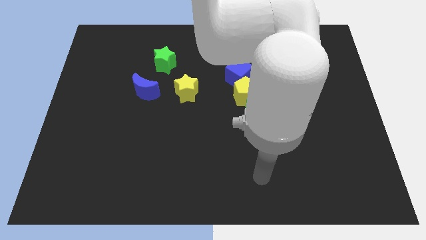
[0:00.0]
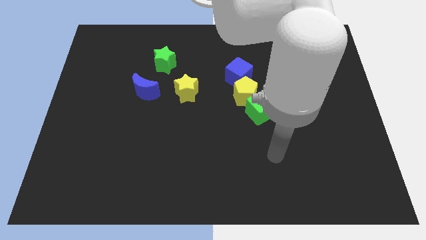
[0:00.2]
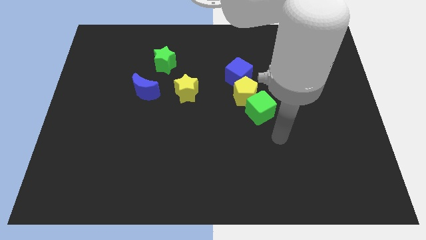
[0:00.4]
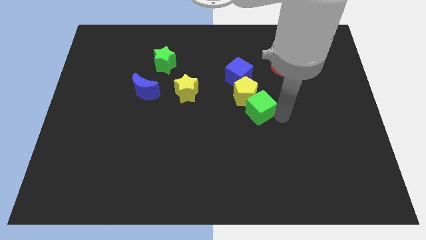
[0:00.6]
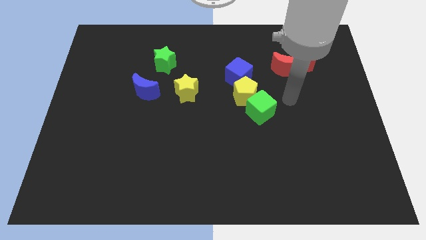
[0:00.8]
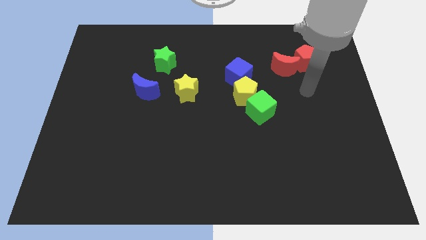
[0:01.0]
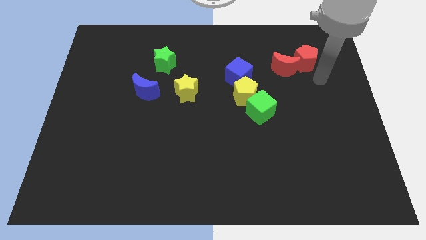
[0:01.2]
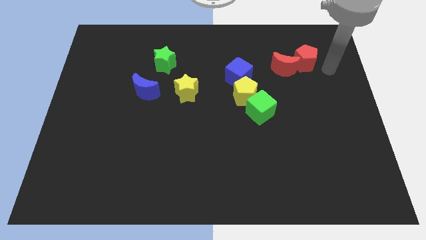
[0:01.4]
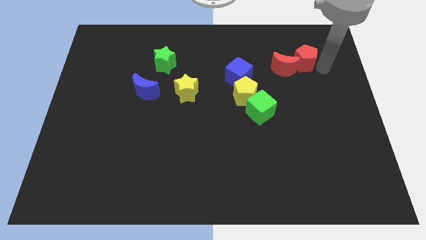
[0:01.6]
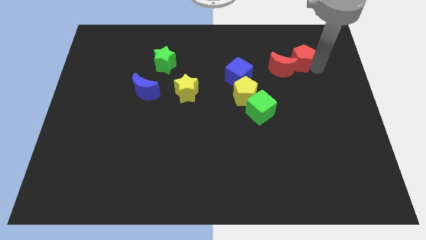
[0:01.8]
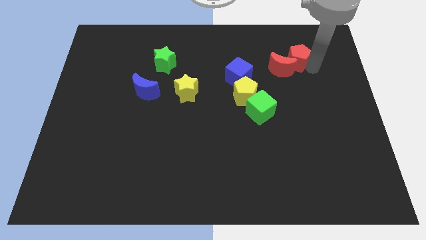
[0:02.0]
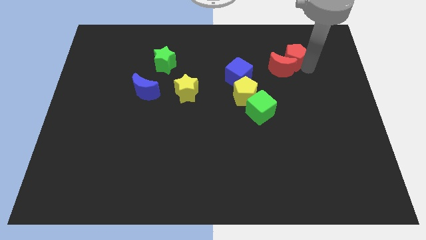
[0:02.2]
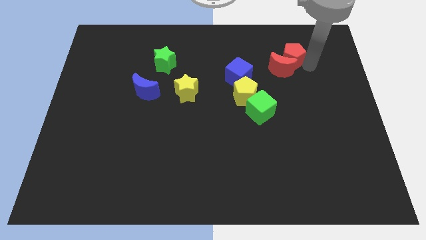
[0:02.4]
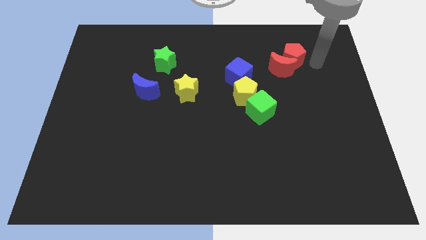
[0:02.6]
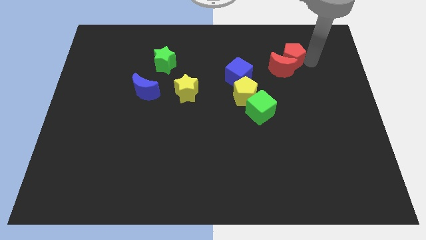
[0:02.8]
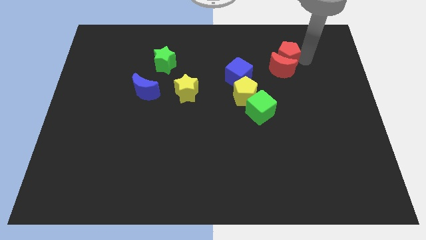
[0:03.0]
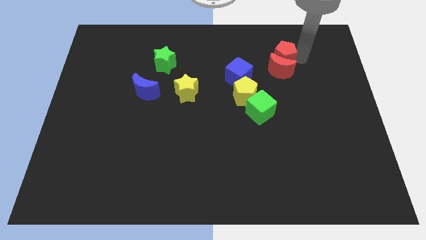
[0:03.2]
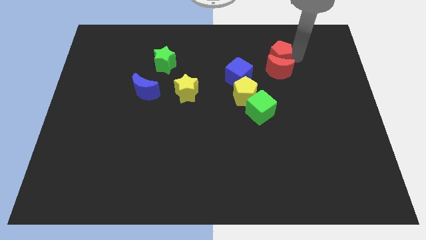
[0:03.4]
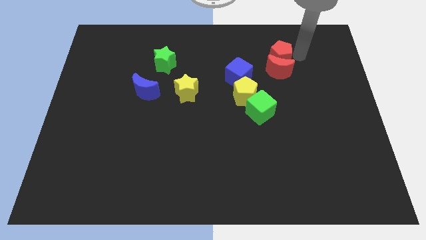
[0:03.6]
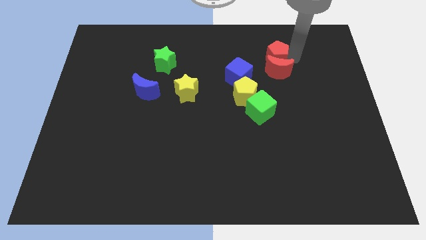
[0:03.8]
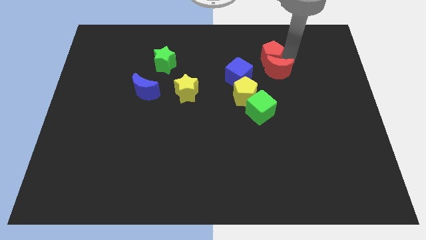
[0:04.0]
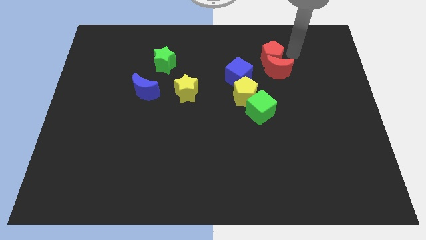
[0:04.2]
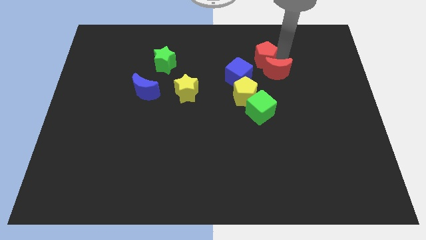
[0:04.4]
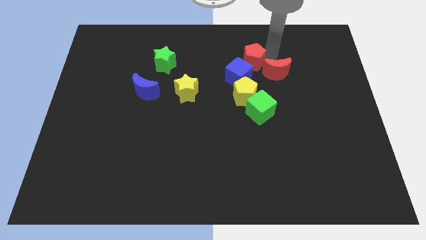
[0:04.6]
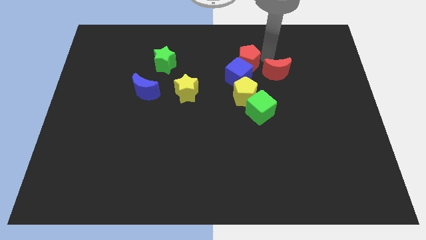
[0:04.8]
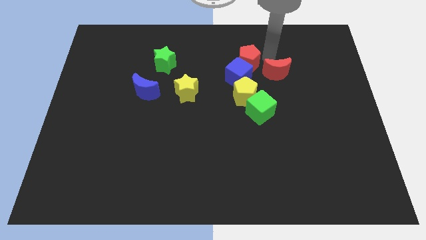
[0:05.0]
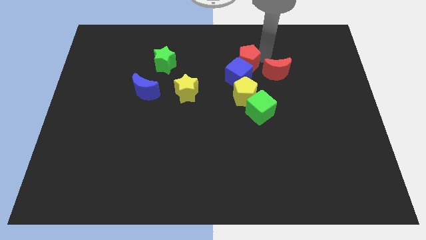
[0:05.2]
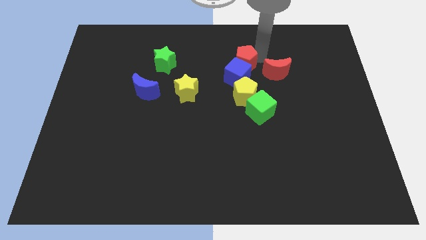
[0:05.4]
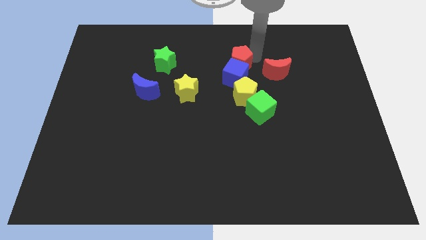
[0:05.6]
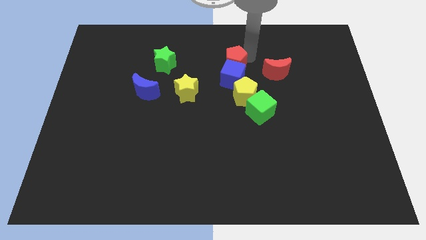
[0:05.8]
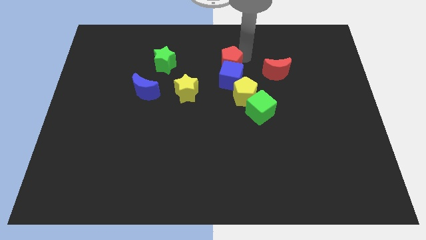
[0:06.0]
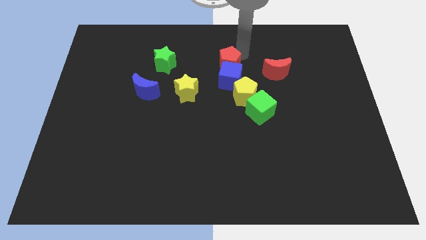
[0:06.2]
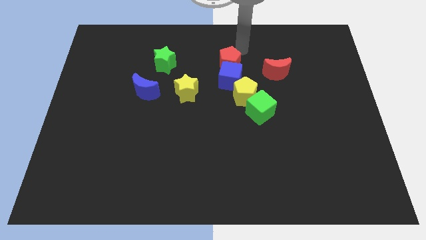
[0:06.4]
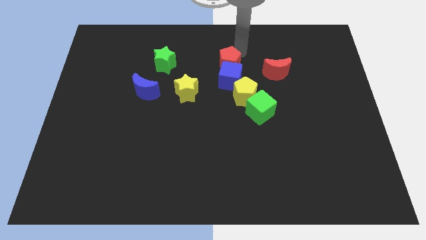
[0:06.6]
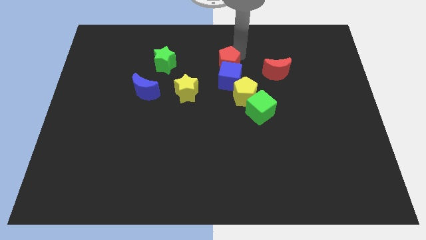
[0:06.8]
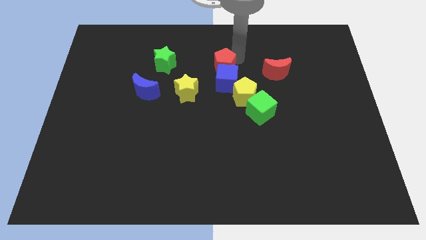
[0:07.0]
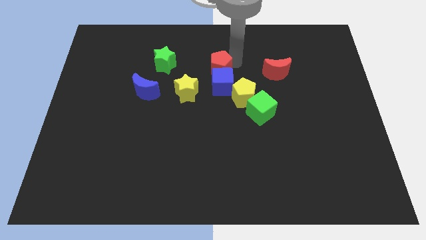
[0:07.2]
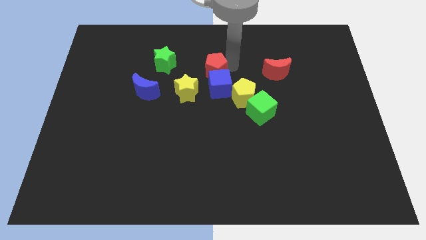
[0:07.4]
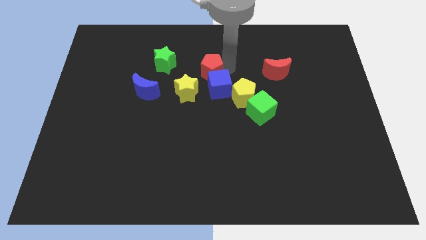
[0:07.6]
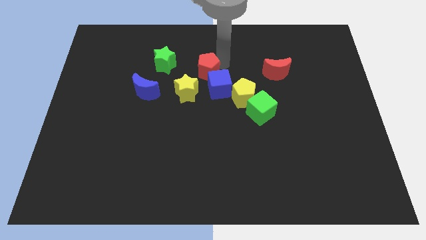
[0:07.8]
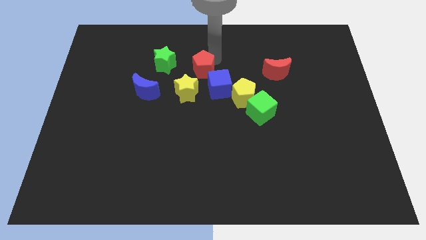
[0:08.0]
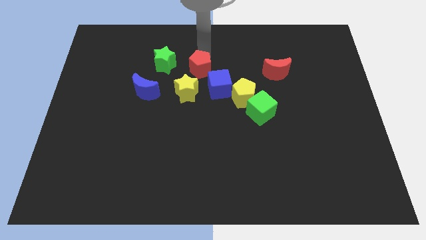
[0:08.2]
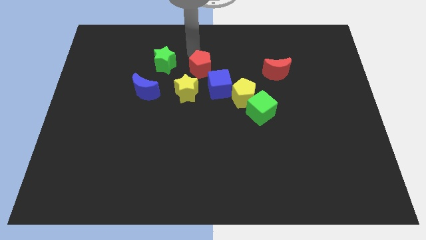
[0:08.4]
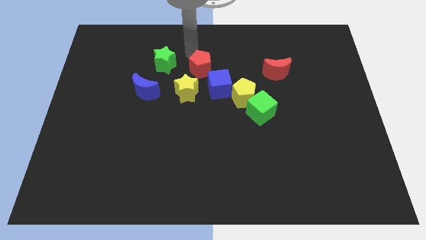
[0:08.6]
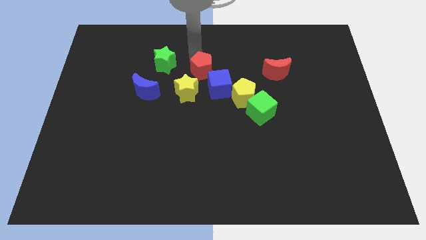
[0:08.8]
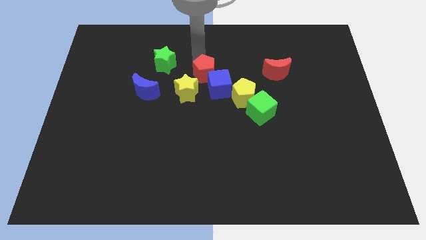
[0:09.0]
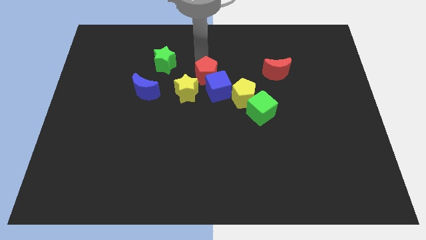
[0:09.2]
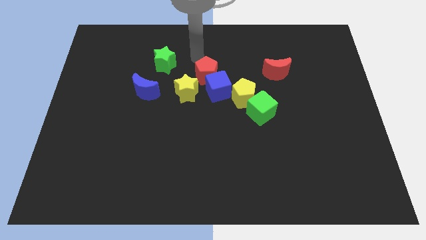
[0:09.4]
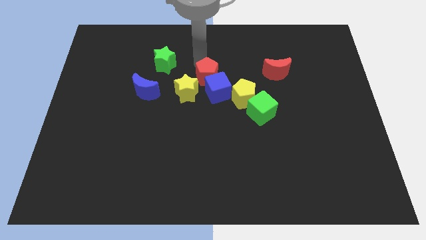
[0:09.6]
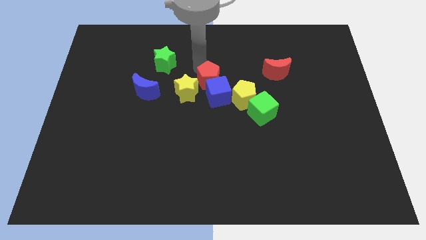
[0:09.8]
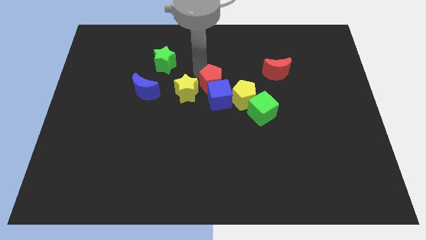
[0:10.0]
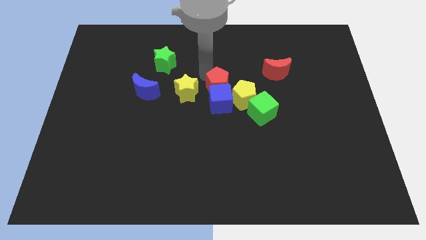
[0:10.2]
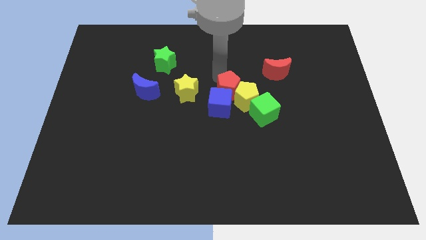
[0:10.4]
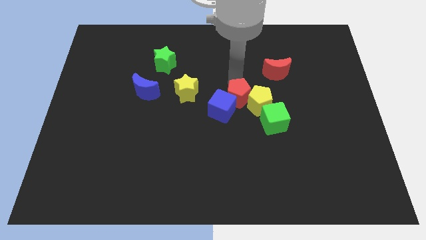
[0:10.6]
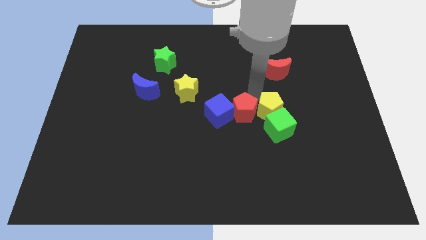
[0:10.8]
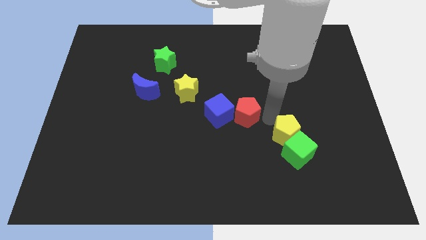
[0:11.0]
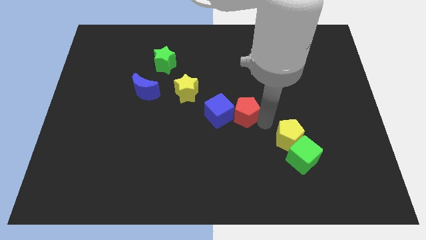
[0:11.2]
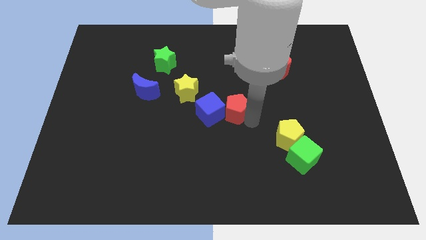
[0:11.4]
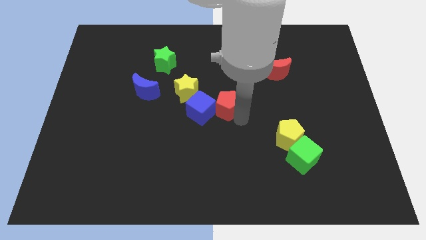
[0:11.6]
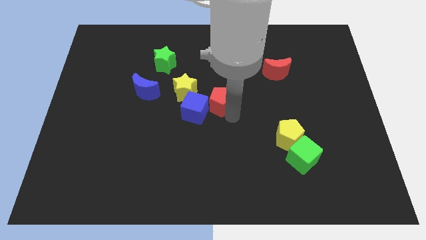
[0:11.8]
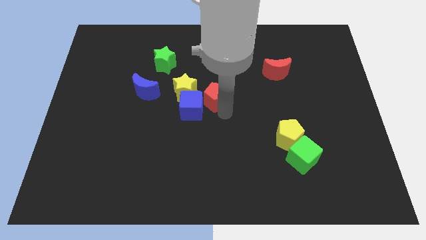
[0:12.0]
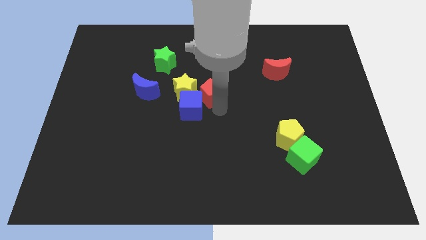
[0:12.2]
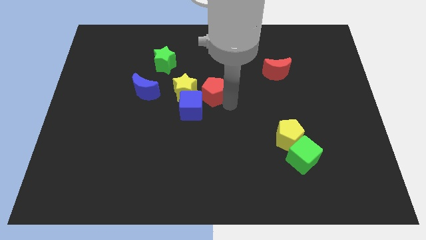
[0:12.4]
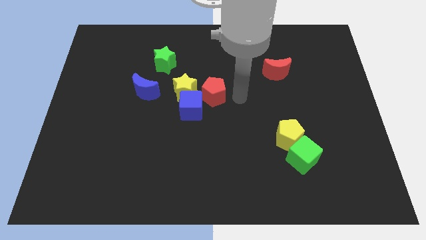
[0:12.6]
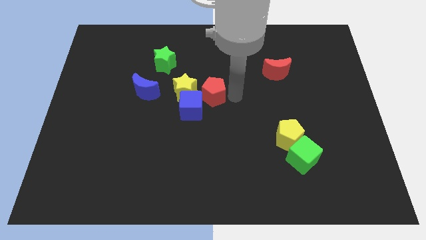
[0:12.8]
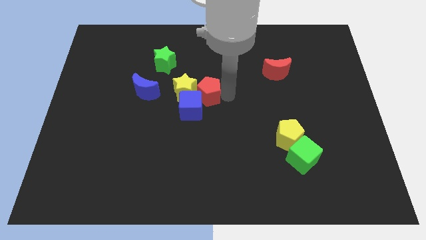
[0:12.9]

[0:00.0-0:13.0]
push the red pentagon just right of the blue moon
